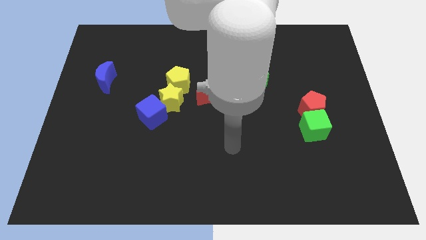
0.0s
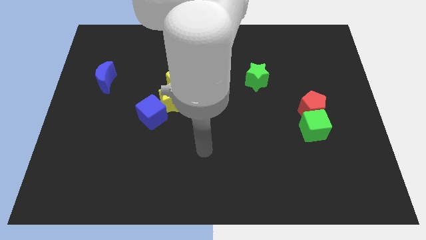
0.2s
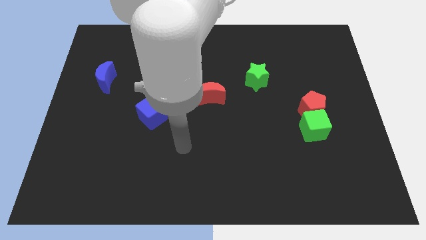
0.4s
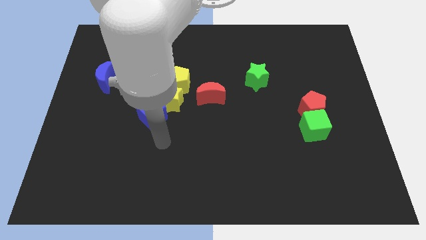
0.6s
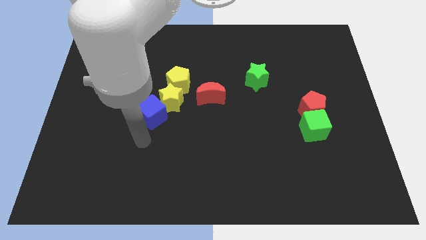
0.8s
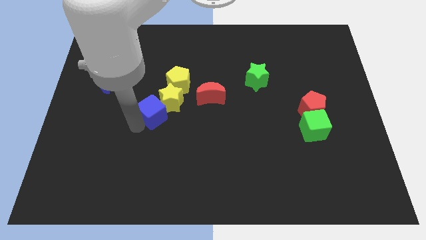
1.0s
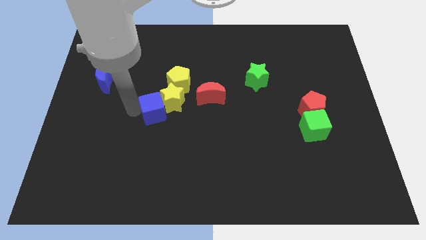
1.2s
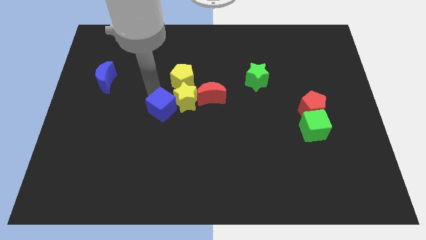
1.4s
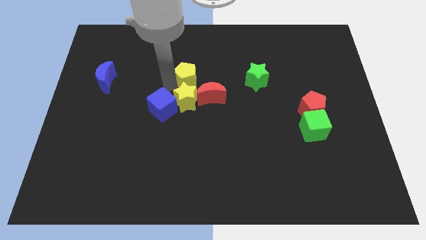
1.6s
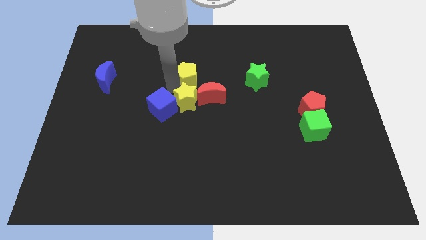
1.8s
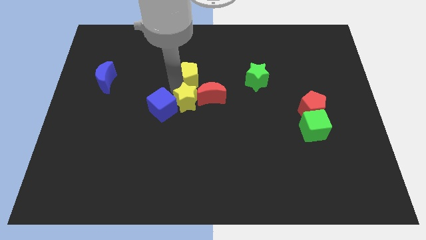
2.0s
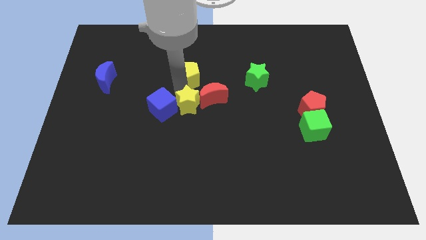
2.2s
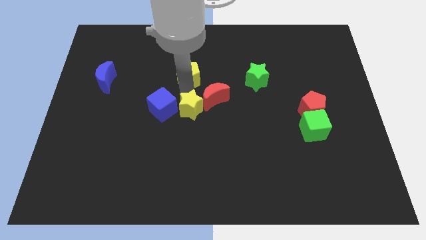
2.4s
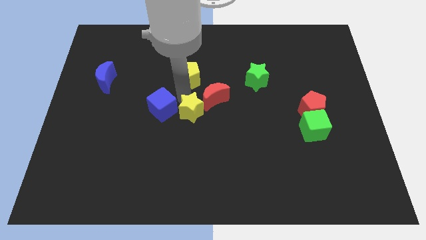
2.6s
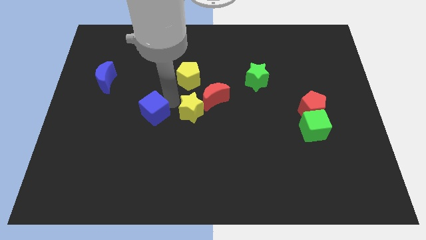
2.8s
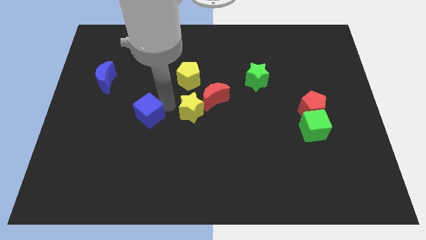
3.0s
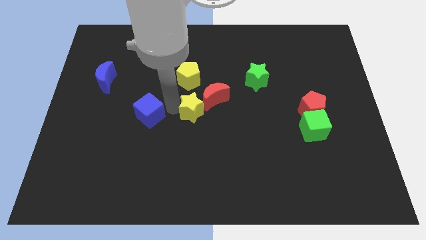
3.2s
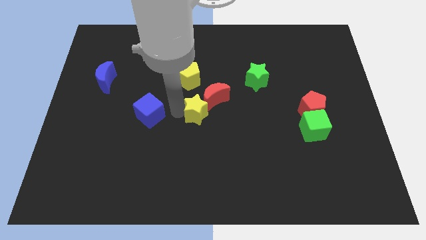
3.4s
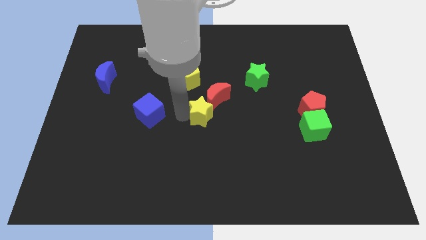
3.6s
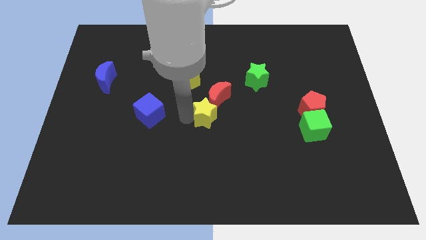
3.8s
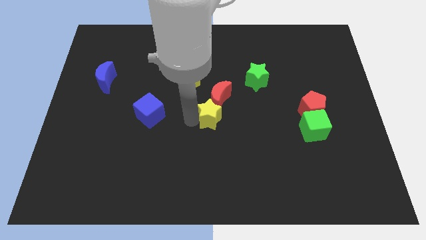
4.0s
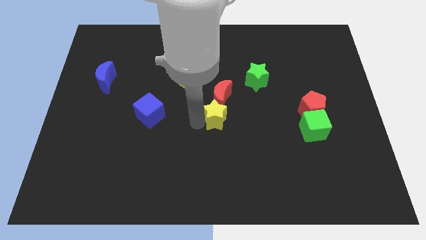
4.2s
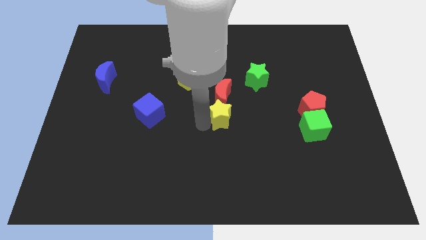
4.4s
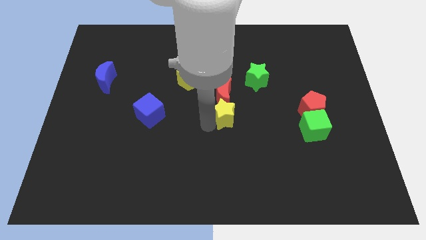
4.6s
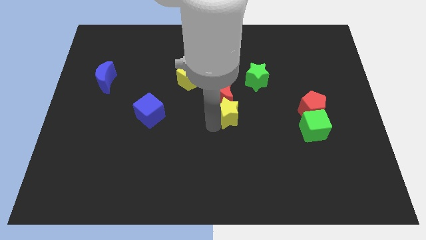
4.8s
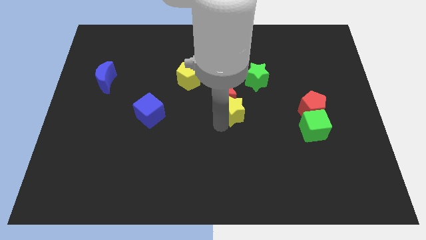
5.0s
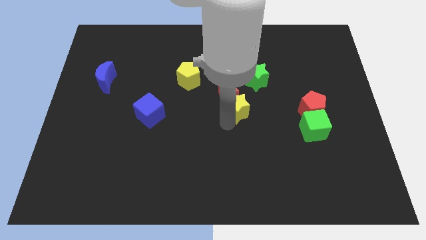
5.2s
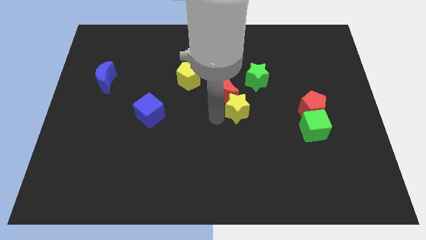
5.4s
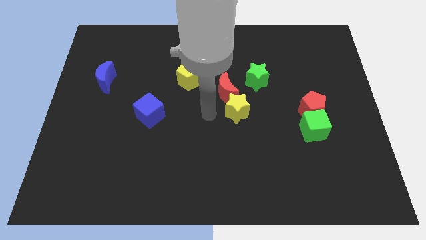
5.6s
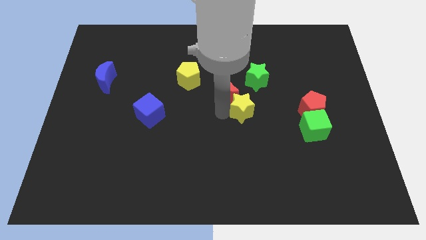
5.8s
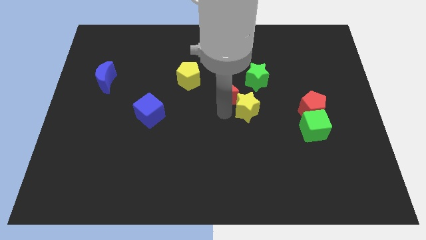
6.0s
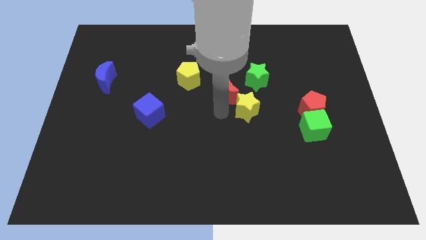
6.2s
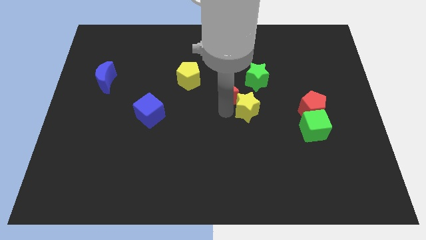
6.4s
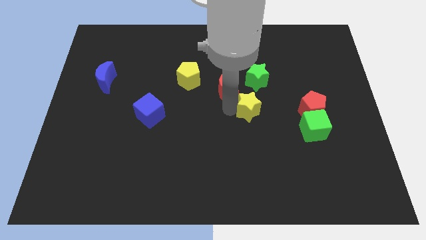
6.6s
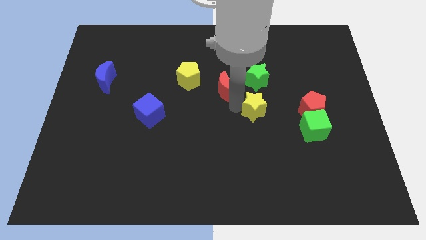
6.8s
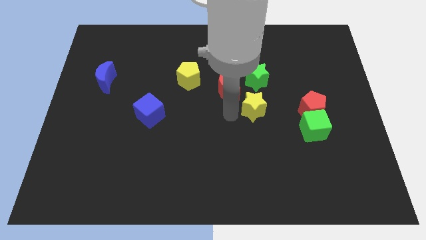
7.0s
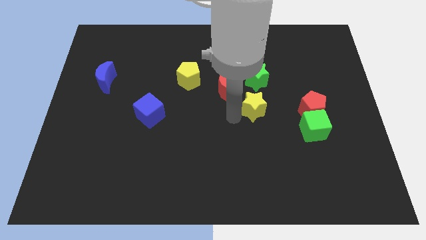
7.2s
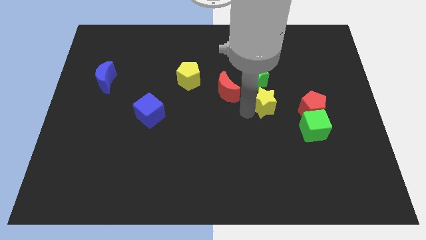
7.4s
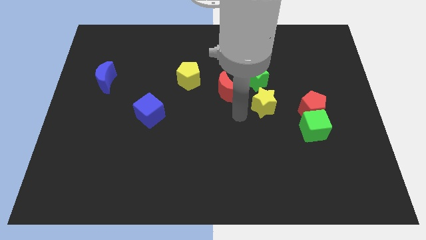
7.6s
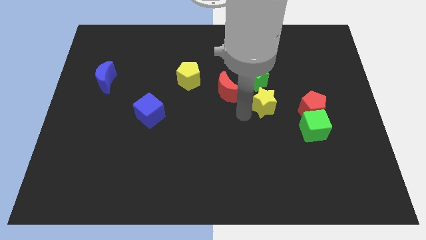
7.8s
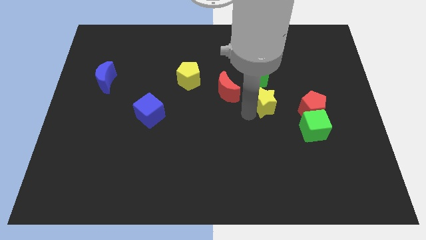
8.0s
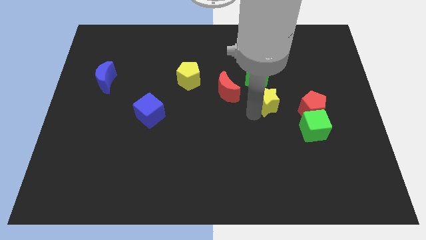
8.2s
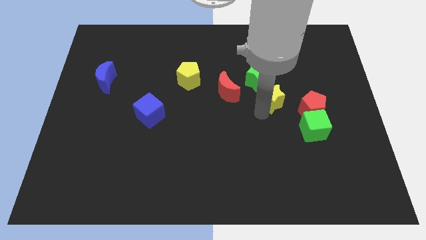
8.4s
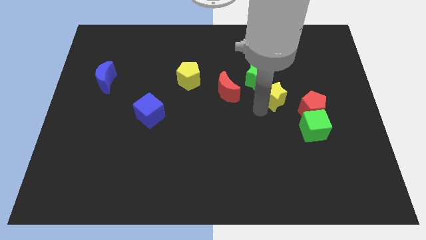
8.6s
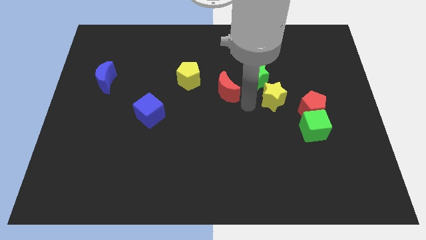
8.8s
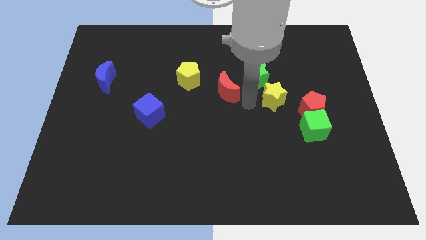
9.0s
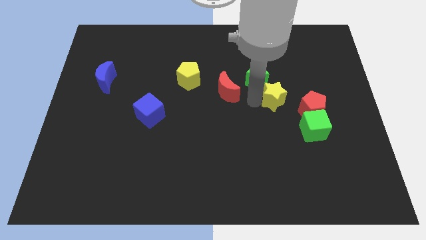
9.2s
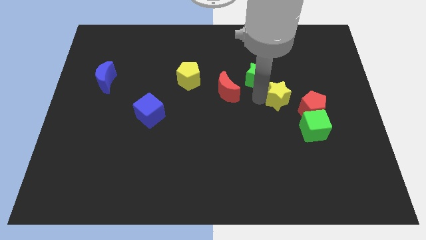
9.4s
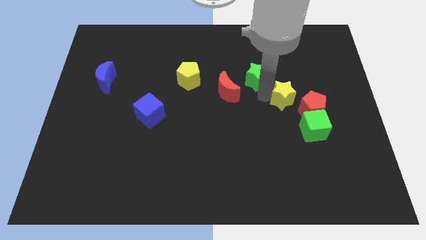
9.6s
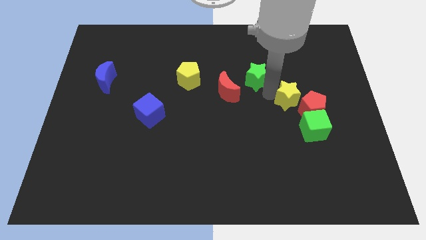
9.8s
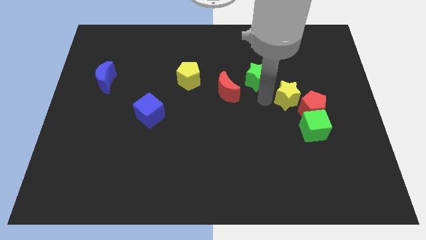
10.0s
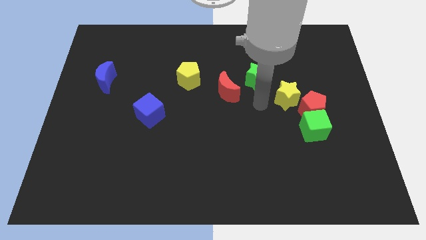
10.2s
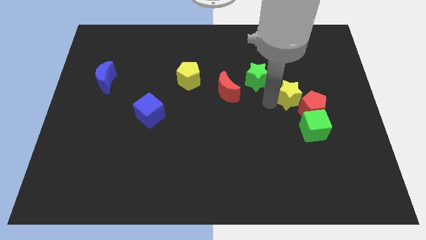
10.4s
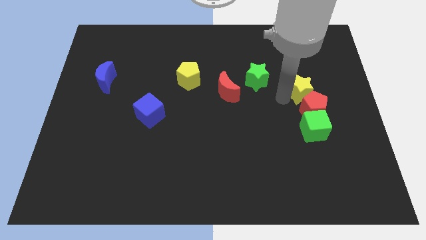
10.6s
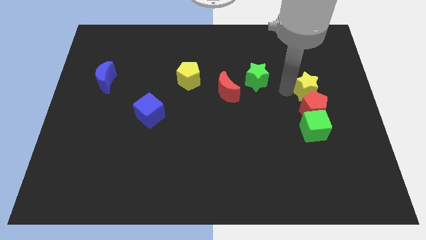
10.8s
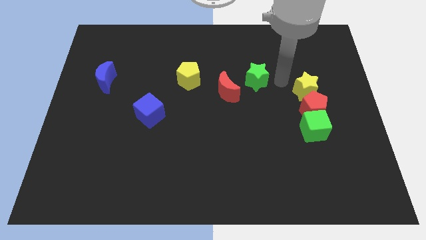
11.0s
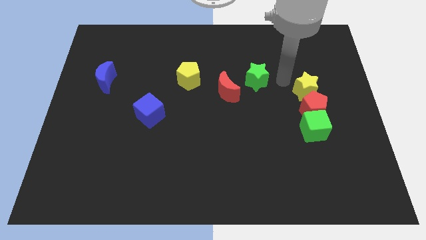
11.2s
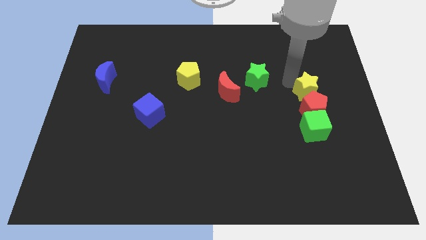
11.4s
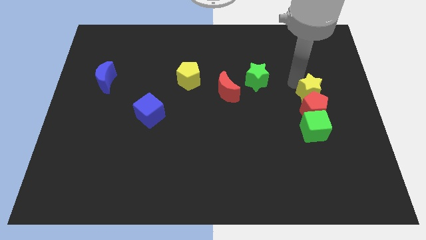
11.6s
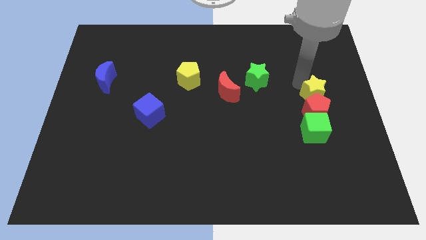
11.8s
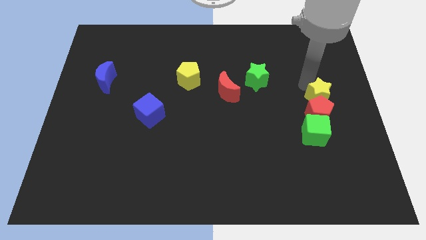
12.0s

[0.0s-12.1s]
put the yellow star to the right side
